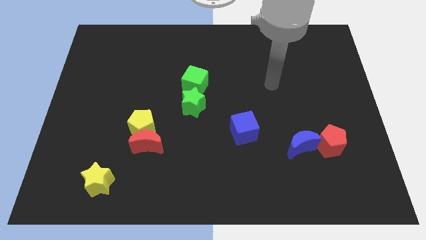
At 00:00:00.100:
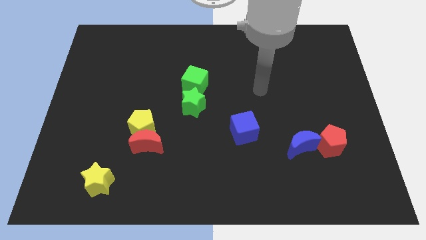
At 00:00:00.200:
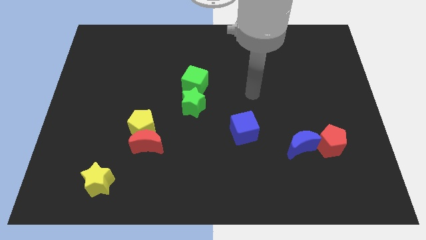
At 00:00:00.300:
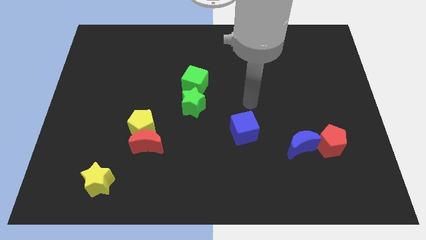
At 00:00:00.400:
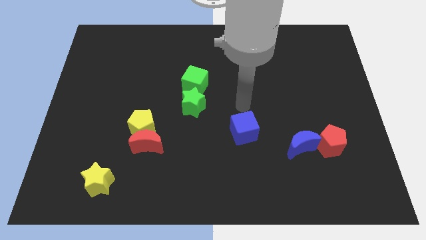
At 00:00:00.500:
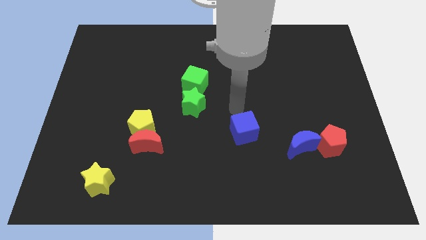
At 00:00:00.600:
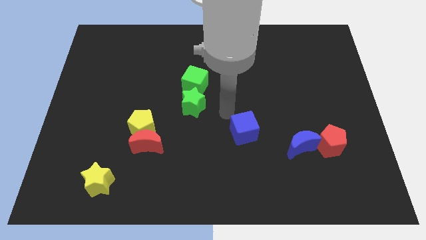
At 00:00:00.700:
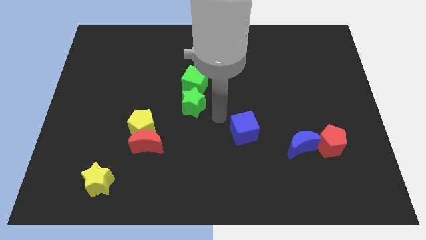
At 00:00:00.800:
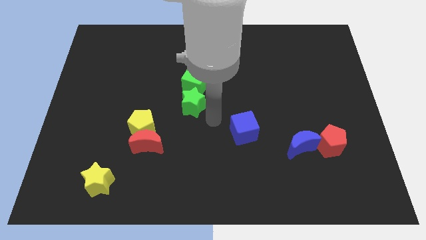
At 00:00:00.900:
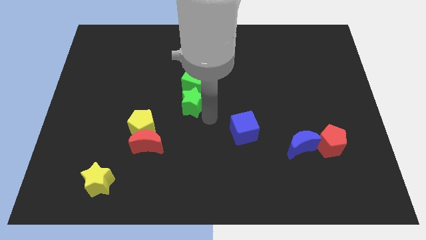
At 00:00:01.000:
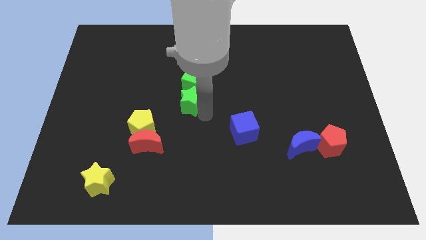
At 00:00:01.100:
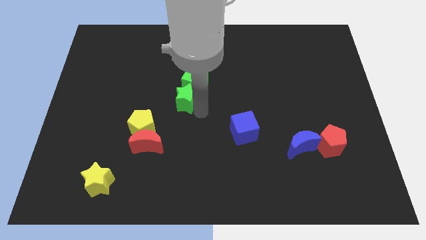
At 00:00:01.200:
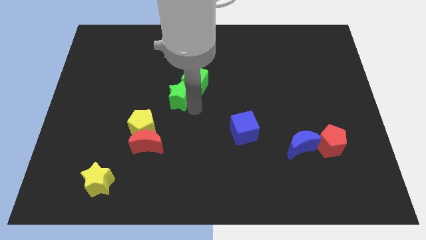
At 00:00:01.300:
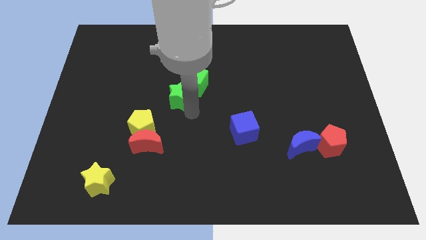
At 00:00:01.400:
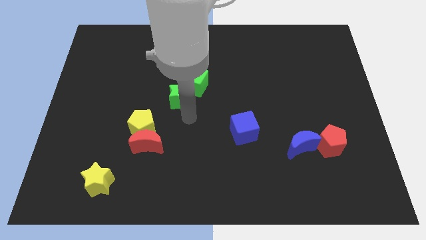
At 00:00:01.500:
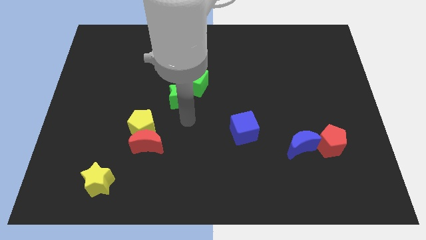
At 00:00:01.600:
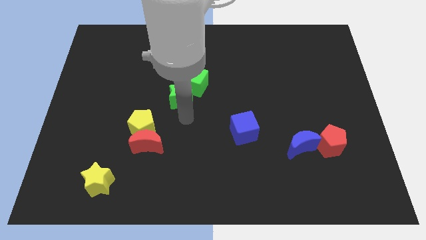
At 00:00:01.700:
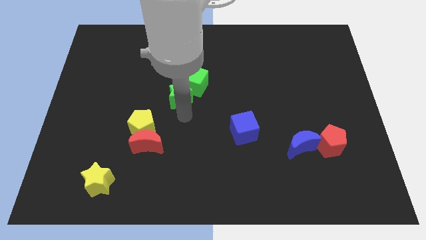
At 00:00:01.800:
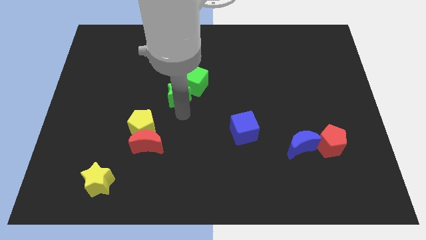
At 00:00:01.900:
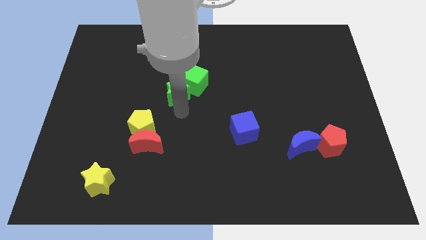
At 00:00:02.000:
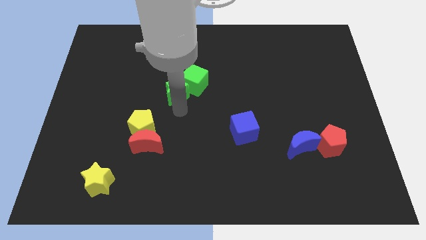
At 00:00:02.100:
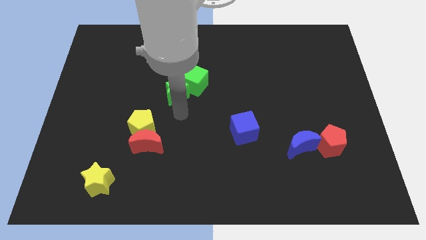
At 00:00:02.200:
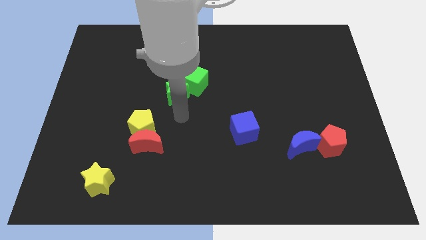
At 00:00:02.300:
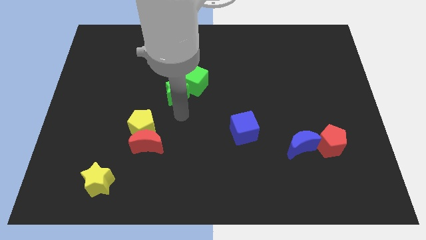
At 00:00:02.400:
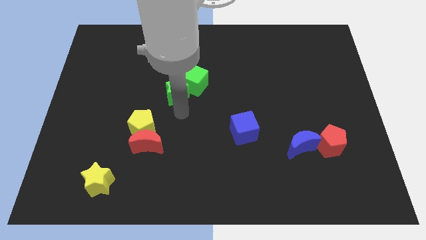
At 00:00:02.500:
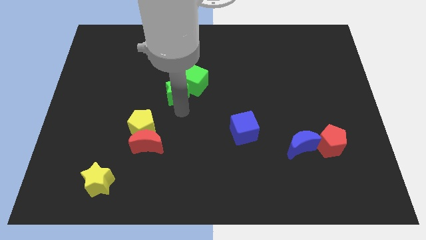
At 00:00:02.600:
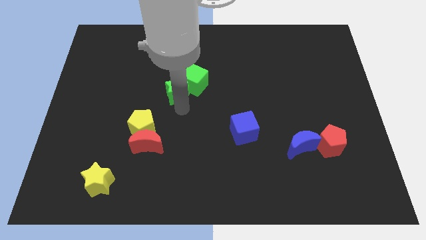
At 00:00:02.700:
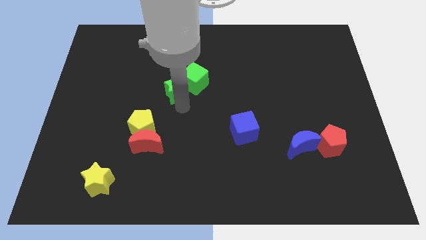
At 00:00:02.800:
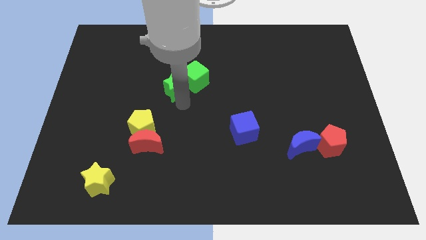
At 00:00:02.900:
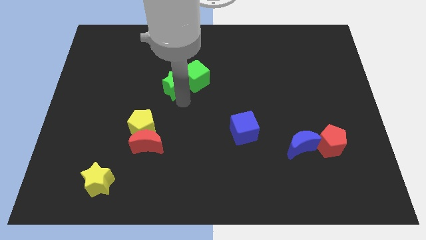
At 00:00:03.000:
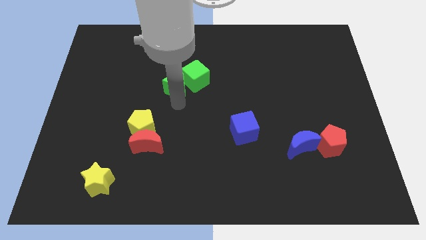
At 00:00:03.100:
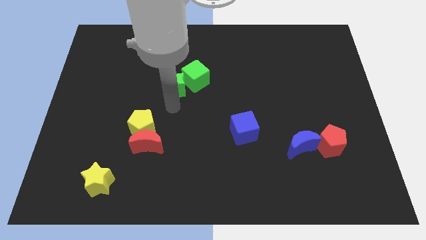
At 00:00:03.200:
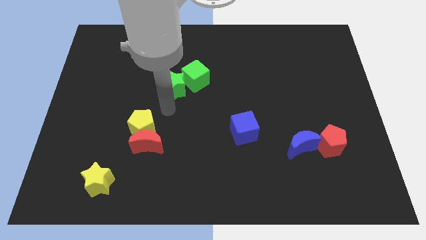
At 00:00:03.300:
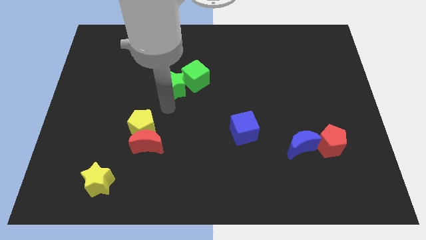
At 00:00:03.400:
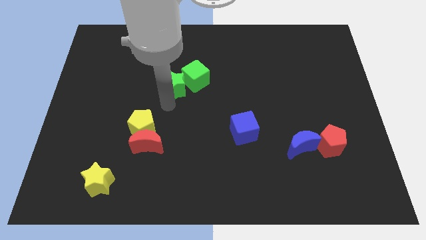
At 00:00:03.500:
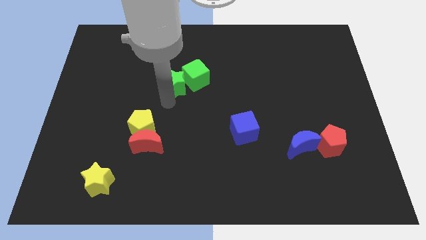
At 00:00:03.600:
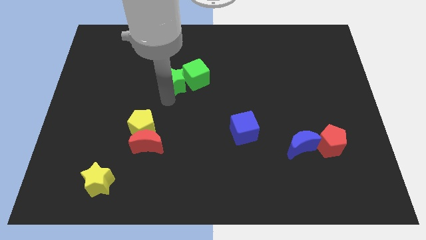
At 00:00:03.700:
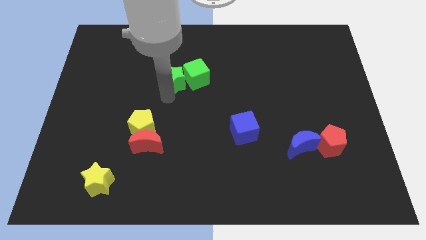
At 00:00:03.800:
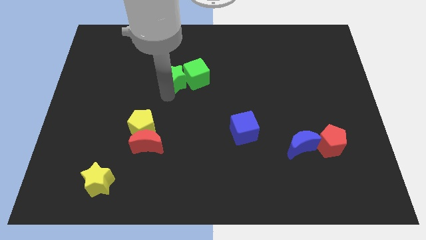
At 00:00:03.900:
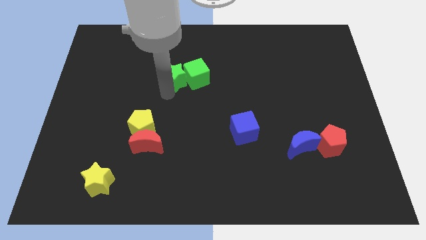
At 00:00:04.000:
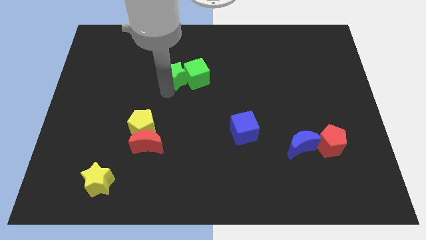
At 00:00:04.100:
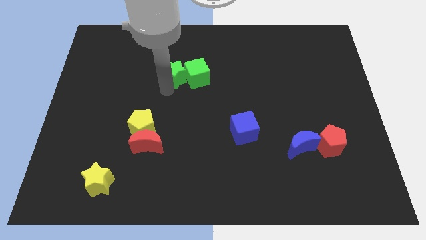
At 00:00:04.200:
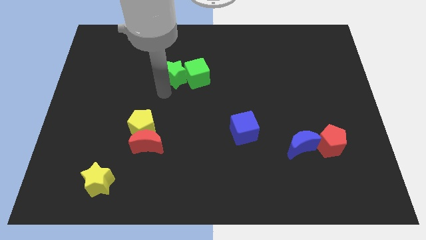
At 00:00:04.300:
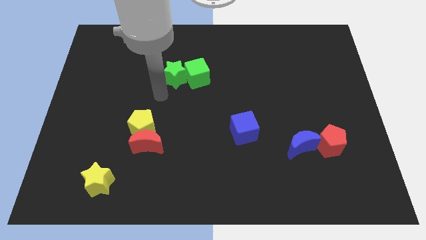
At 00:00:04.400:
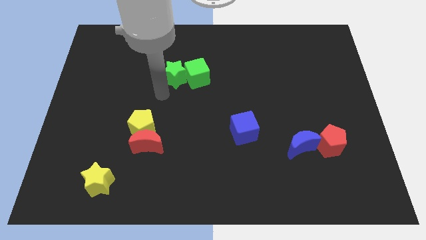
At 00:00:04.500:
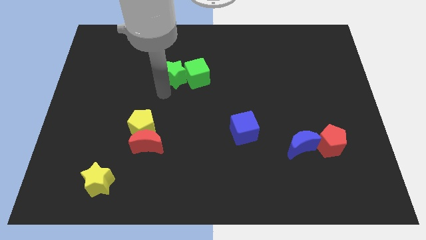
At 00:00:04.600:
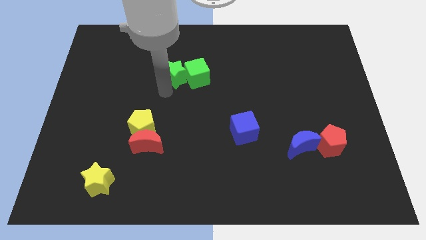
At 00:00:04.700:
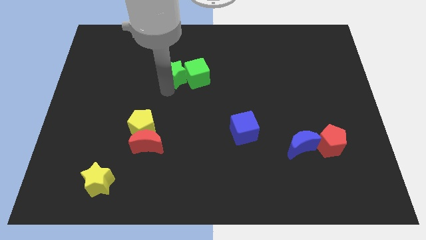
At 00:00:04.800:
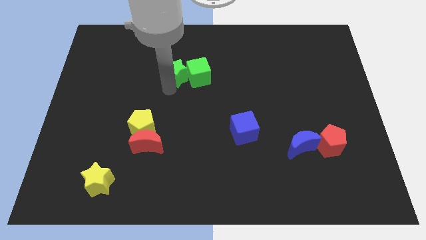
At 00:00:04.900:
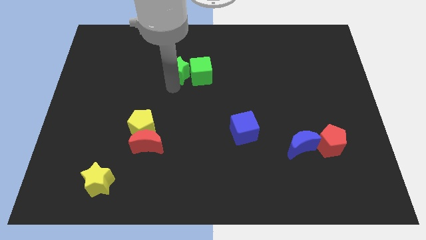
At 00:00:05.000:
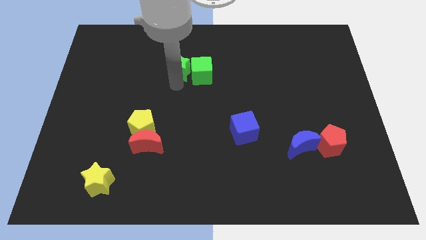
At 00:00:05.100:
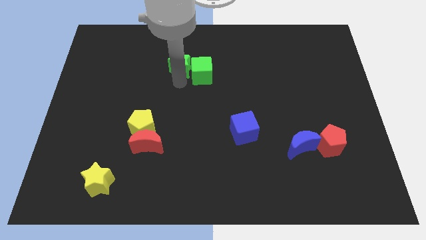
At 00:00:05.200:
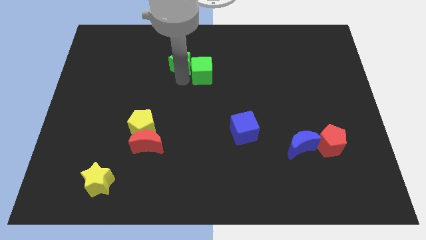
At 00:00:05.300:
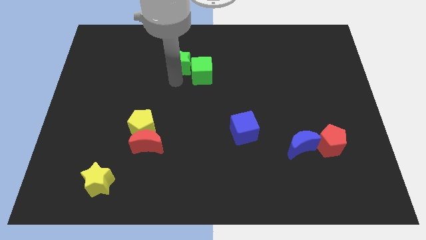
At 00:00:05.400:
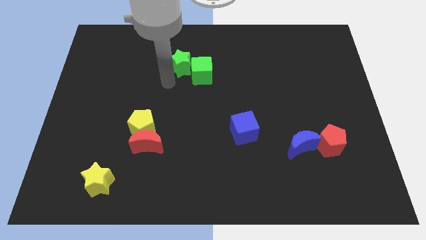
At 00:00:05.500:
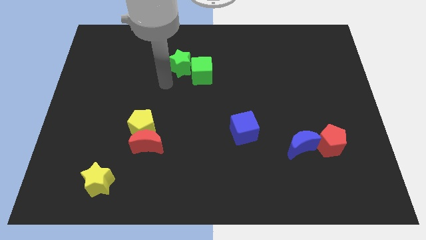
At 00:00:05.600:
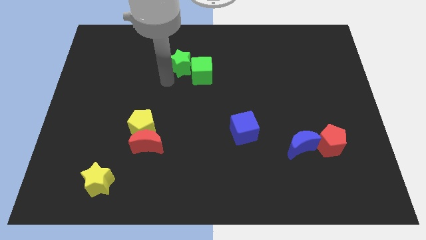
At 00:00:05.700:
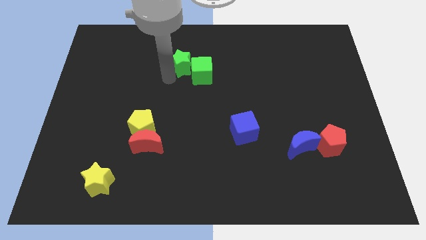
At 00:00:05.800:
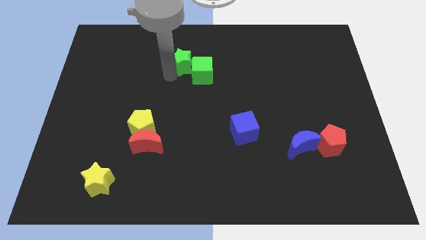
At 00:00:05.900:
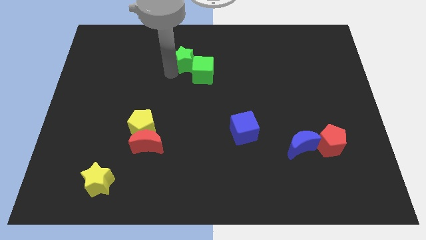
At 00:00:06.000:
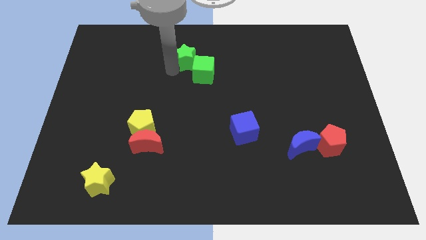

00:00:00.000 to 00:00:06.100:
put the green star to the top of the green cube
